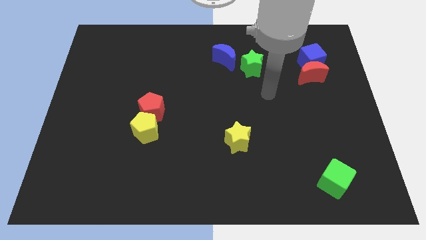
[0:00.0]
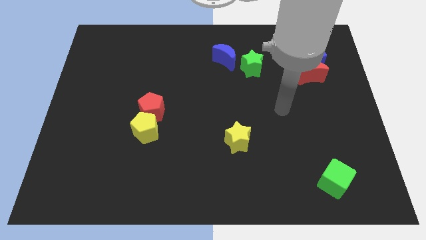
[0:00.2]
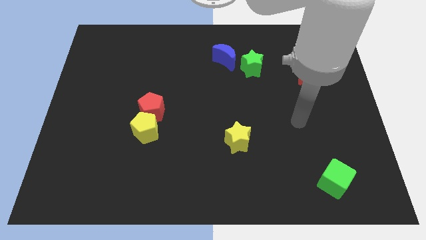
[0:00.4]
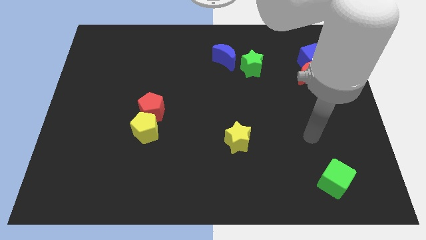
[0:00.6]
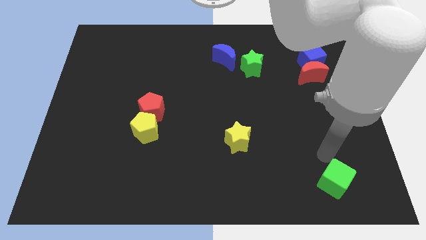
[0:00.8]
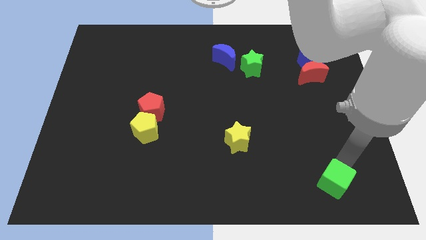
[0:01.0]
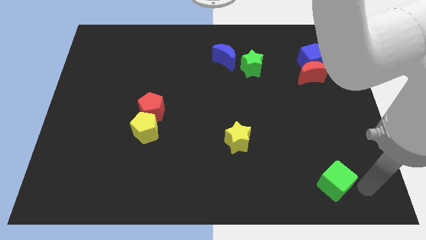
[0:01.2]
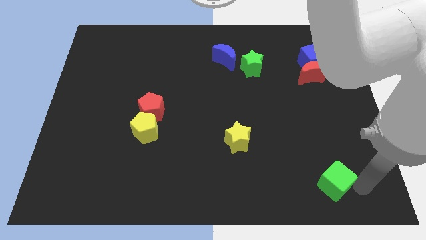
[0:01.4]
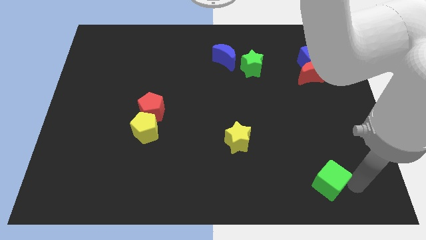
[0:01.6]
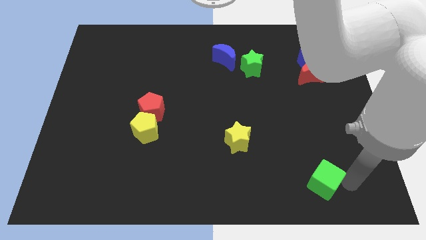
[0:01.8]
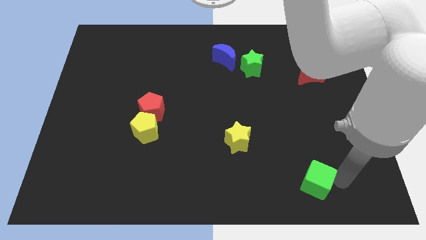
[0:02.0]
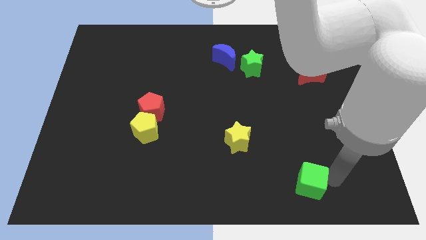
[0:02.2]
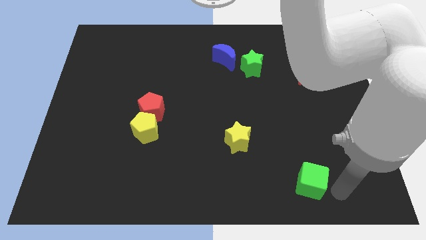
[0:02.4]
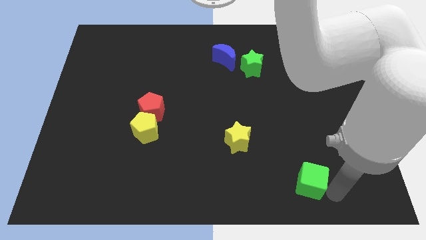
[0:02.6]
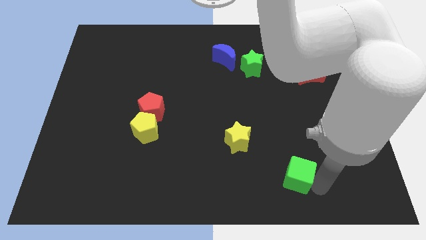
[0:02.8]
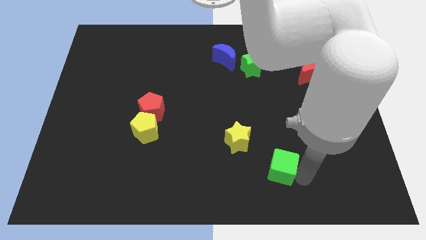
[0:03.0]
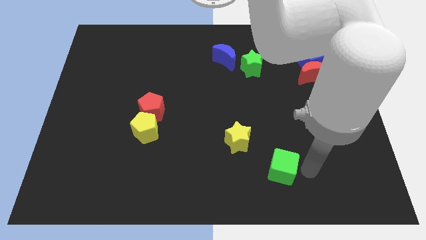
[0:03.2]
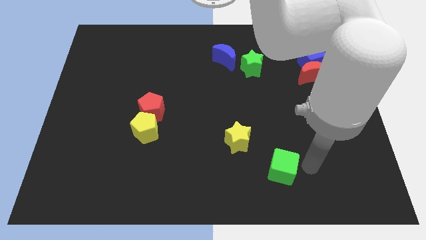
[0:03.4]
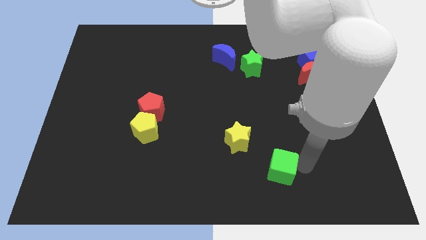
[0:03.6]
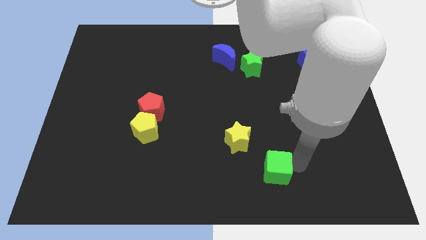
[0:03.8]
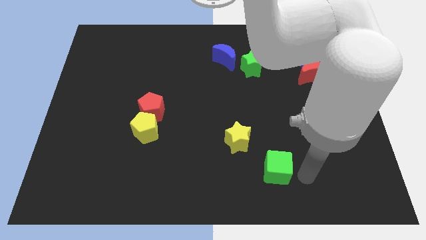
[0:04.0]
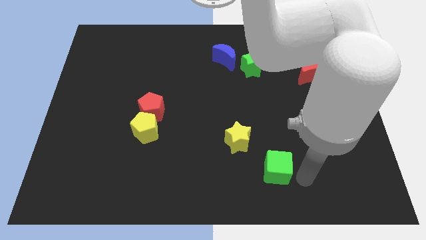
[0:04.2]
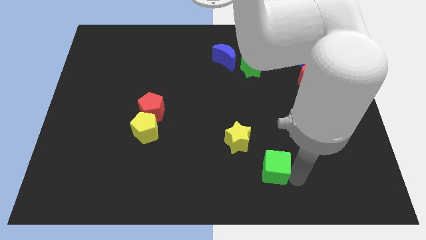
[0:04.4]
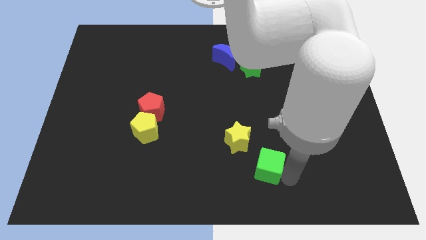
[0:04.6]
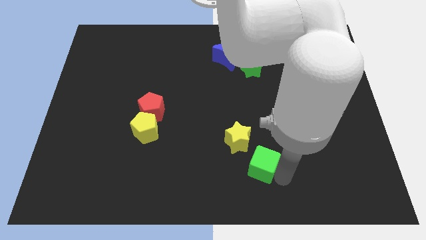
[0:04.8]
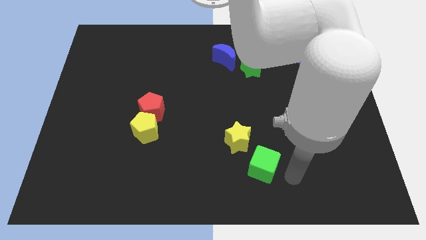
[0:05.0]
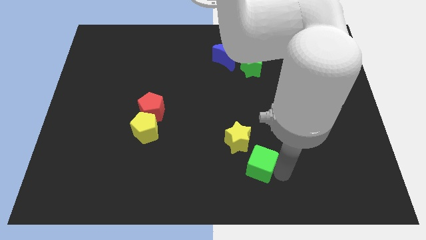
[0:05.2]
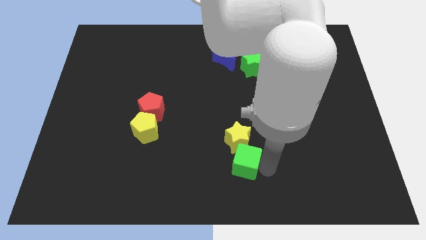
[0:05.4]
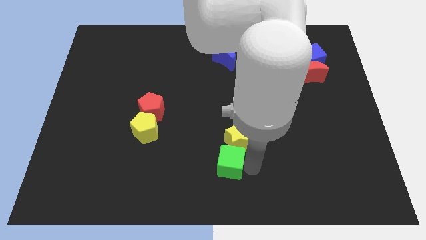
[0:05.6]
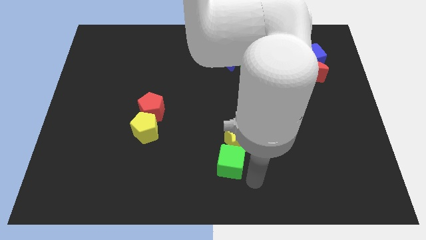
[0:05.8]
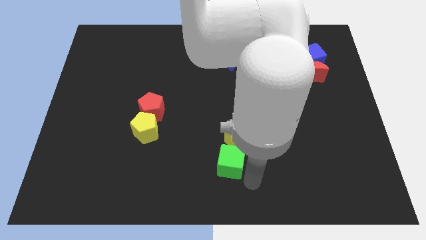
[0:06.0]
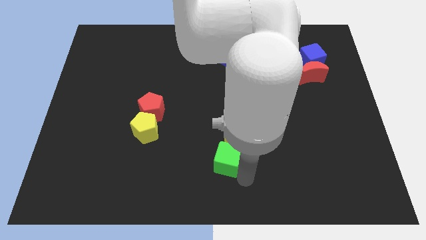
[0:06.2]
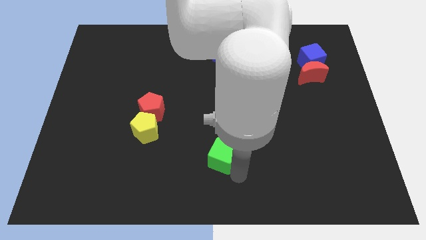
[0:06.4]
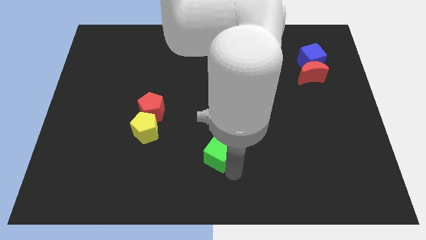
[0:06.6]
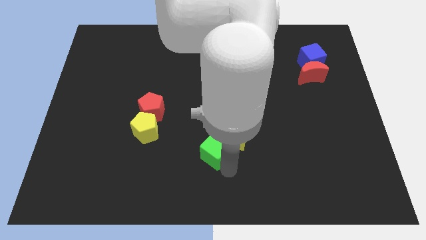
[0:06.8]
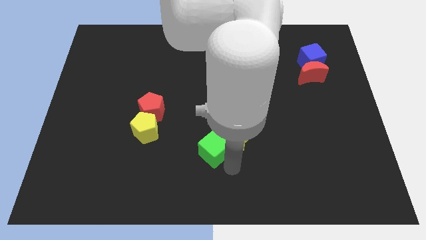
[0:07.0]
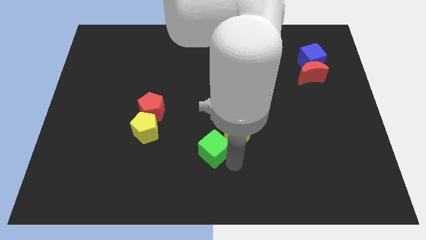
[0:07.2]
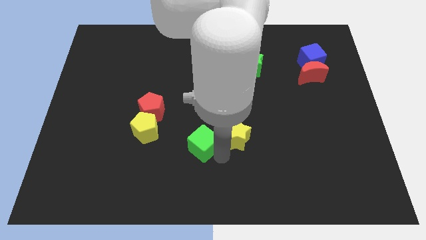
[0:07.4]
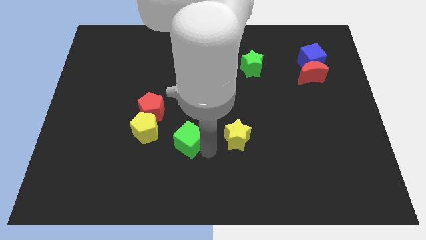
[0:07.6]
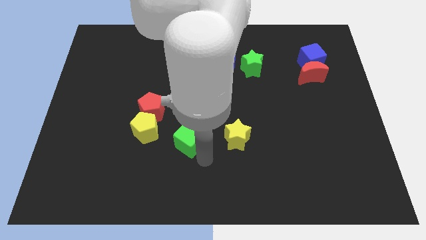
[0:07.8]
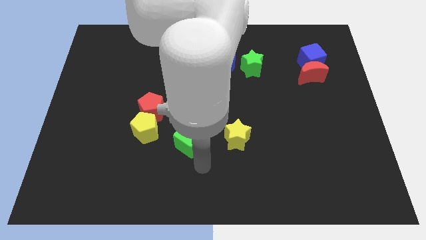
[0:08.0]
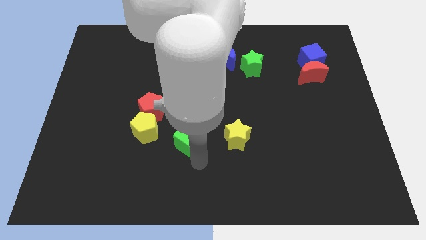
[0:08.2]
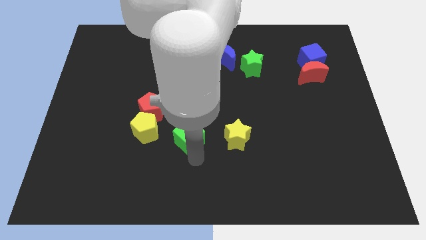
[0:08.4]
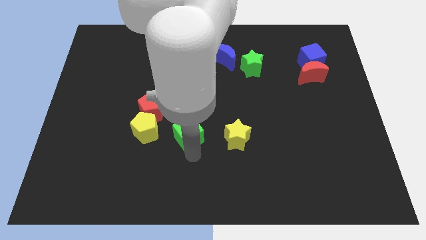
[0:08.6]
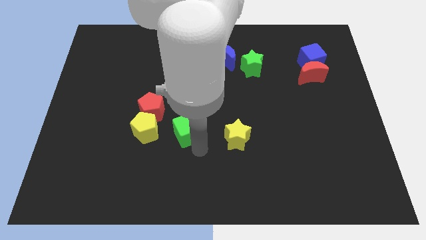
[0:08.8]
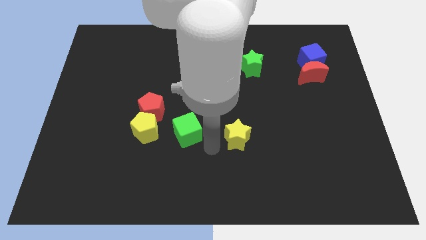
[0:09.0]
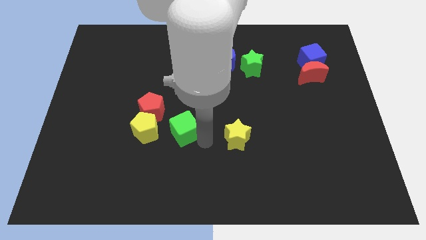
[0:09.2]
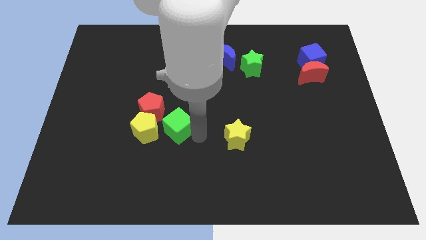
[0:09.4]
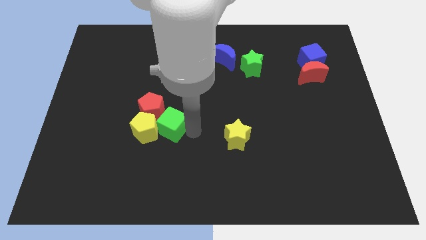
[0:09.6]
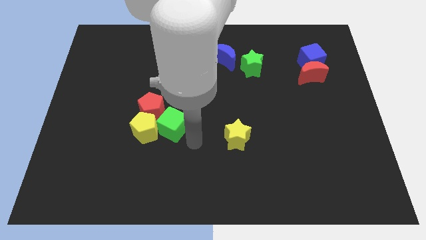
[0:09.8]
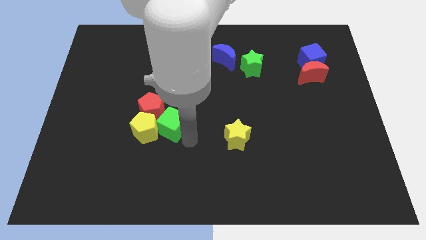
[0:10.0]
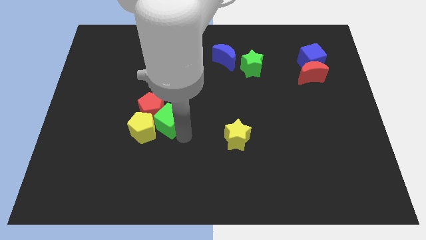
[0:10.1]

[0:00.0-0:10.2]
push the green cube towards the red pentagon

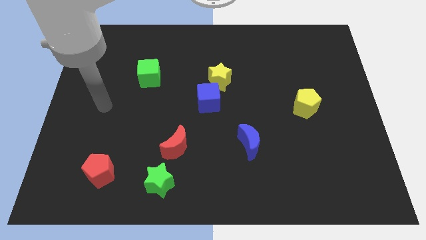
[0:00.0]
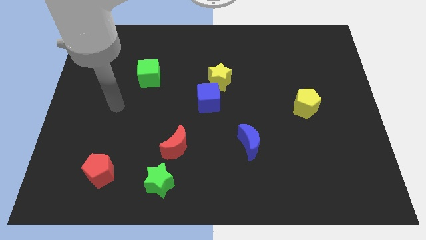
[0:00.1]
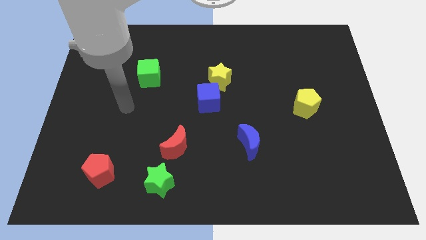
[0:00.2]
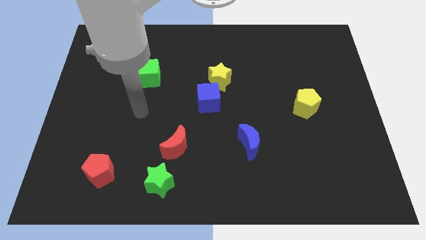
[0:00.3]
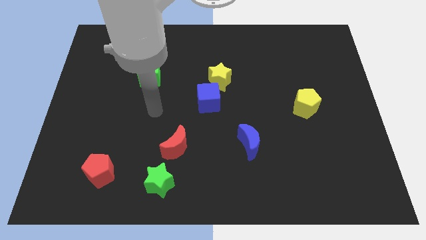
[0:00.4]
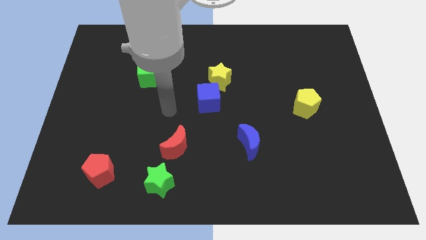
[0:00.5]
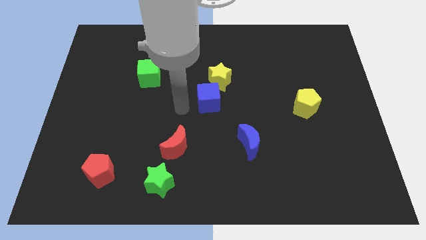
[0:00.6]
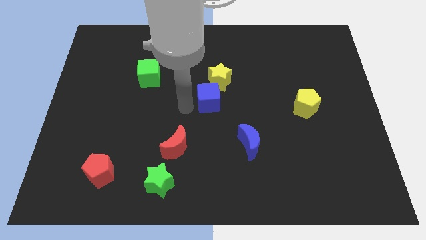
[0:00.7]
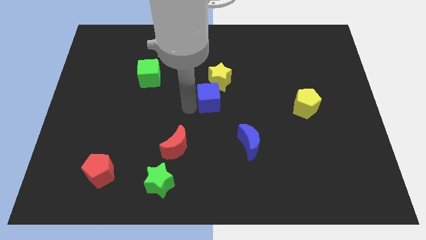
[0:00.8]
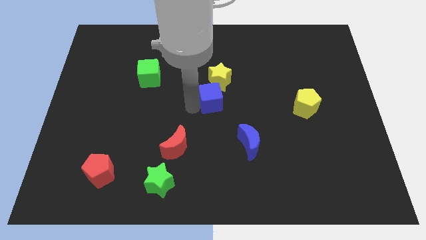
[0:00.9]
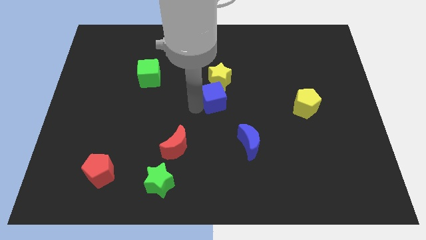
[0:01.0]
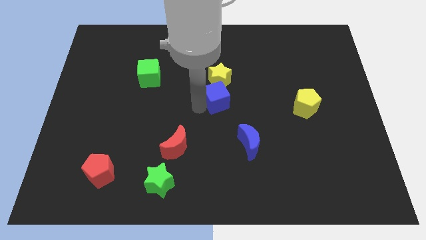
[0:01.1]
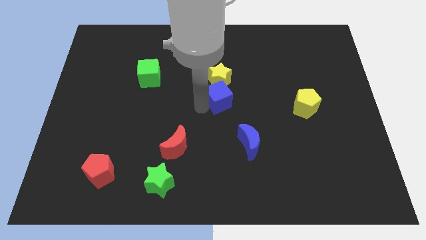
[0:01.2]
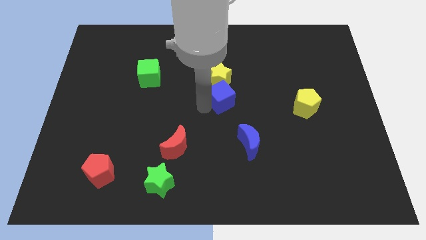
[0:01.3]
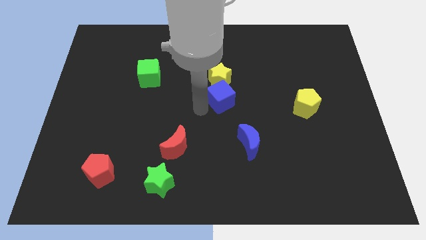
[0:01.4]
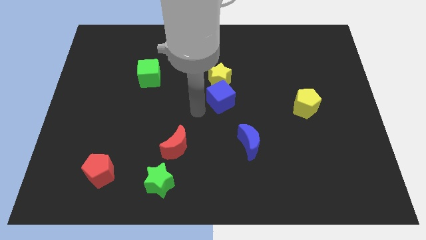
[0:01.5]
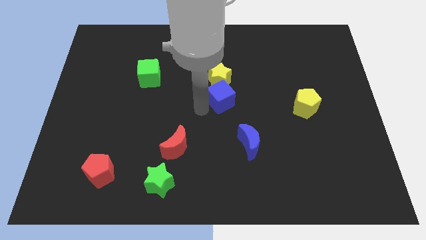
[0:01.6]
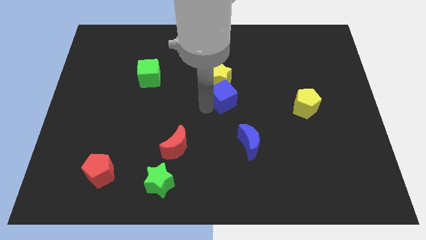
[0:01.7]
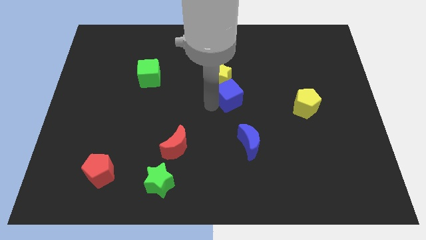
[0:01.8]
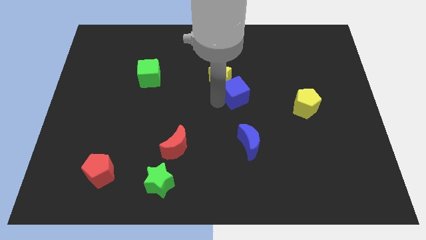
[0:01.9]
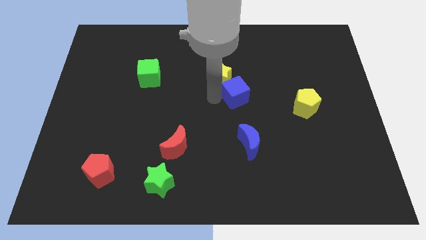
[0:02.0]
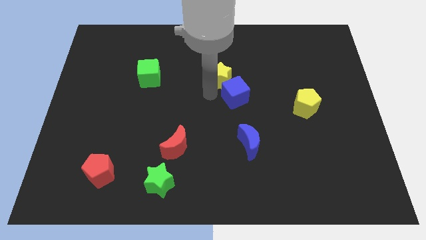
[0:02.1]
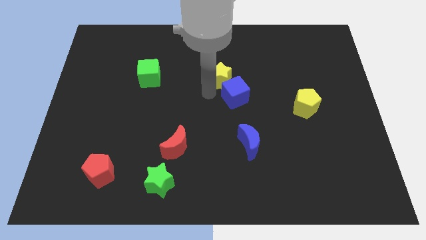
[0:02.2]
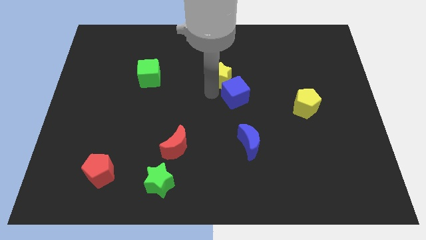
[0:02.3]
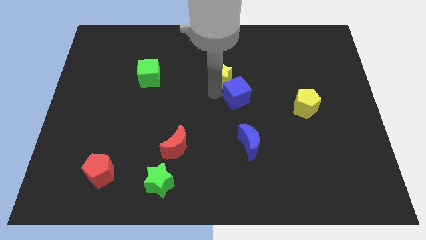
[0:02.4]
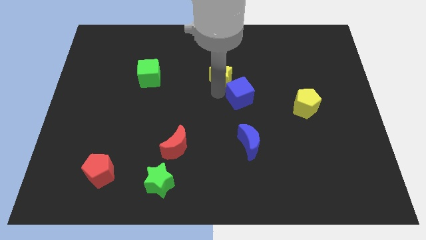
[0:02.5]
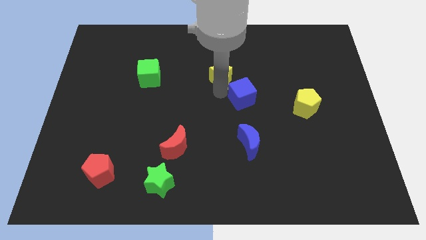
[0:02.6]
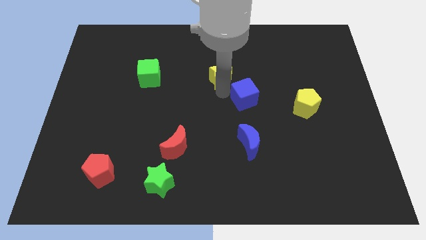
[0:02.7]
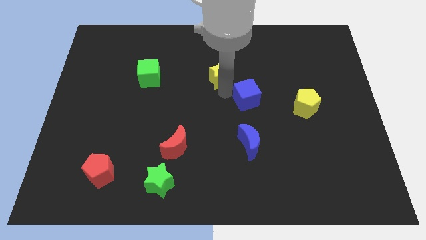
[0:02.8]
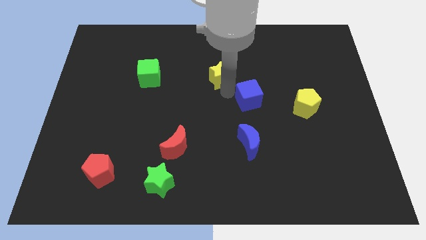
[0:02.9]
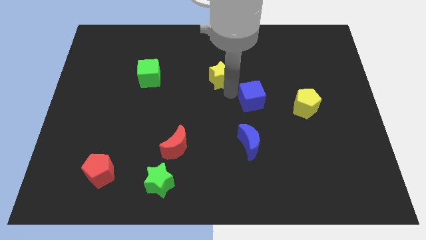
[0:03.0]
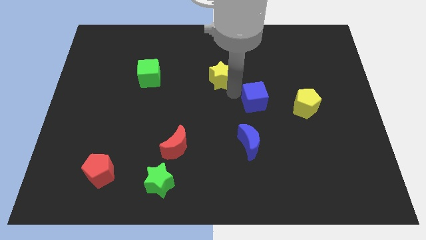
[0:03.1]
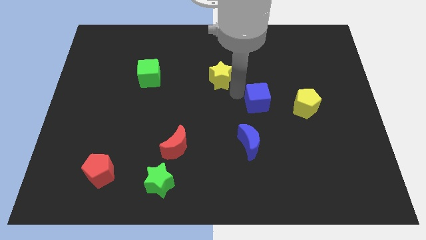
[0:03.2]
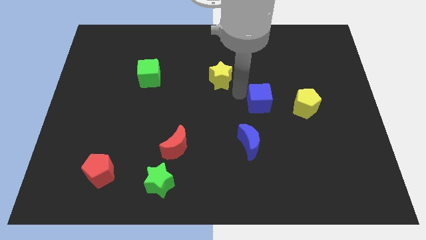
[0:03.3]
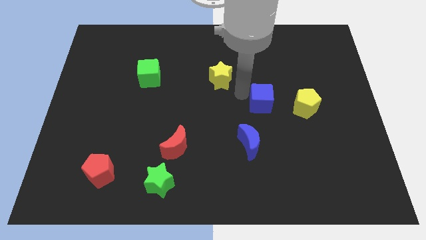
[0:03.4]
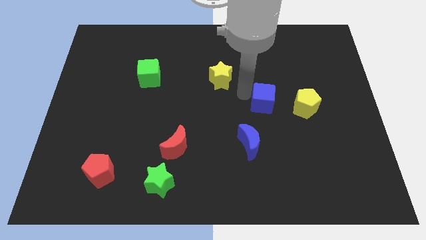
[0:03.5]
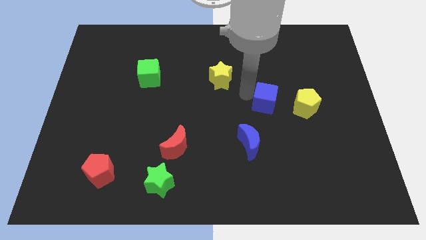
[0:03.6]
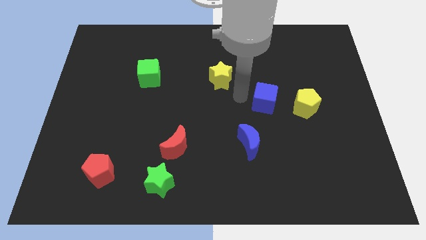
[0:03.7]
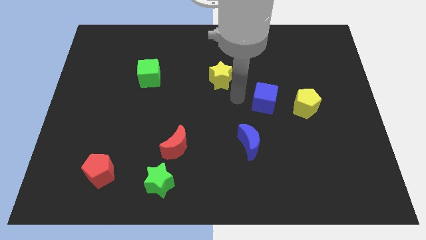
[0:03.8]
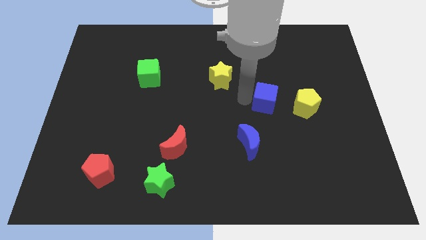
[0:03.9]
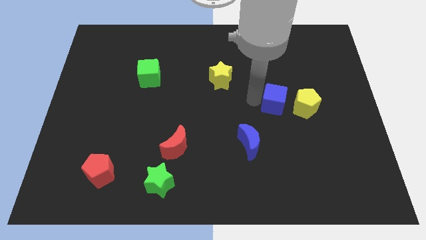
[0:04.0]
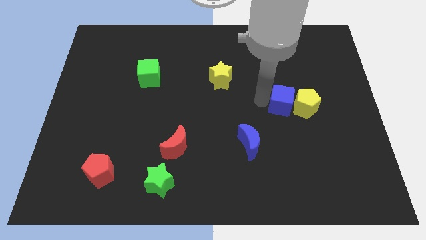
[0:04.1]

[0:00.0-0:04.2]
move the blue cube towards the yellow pentagon
